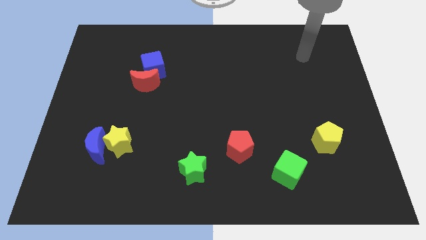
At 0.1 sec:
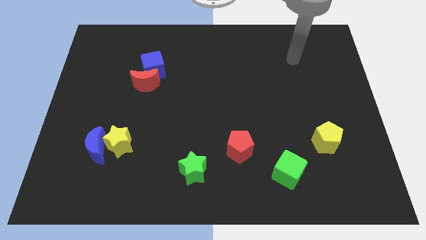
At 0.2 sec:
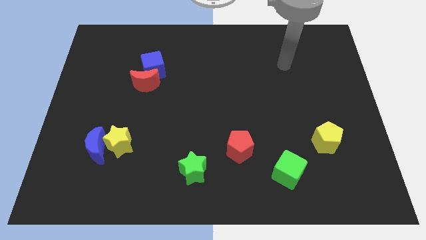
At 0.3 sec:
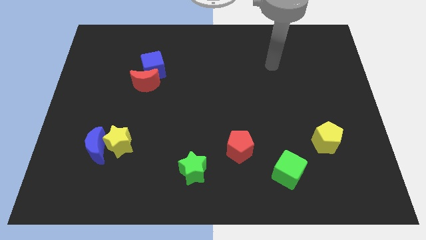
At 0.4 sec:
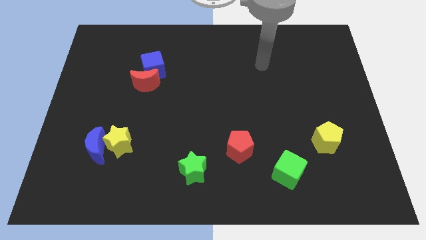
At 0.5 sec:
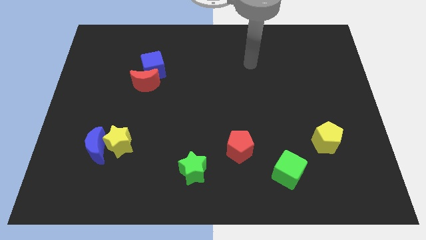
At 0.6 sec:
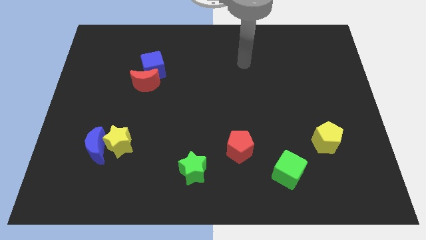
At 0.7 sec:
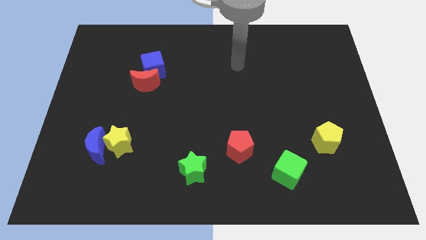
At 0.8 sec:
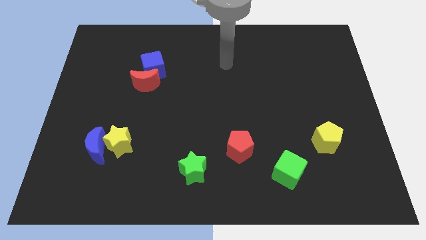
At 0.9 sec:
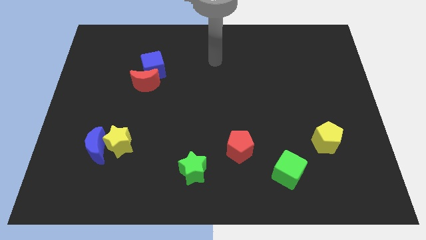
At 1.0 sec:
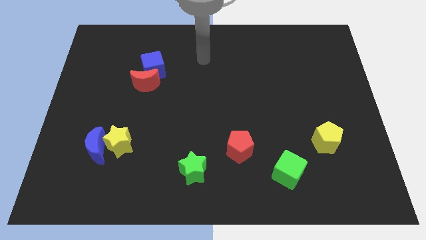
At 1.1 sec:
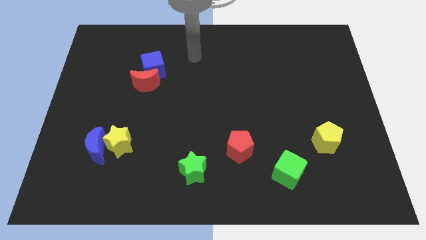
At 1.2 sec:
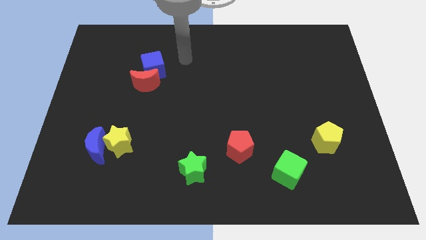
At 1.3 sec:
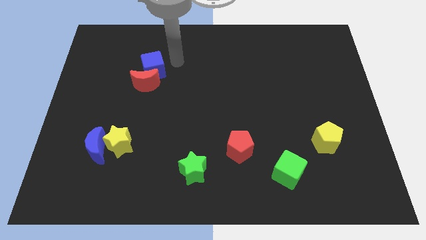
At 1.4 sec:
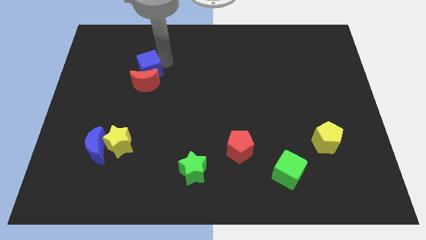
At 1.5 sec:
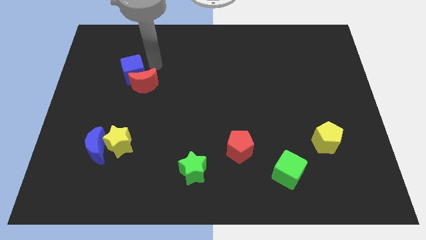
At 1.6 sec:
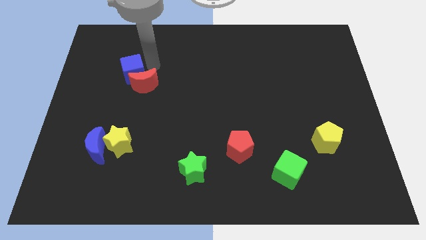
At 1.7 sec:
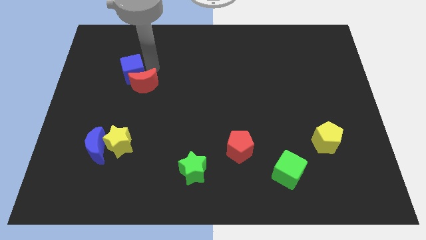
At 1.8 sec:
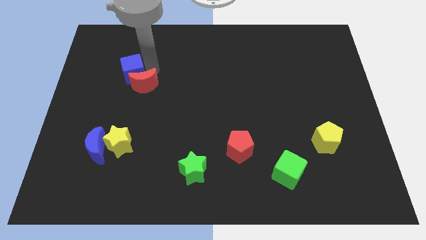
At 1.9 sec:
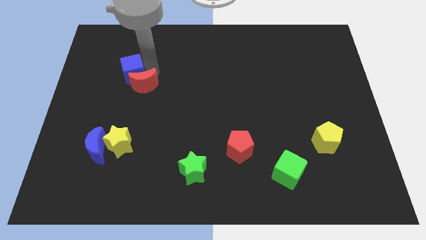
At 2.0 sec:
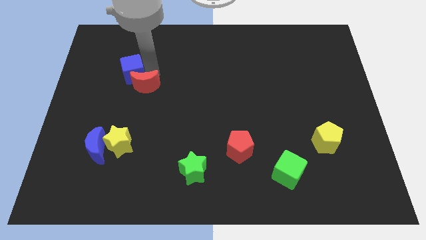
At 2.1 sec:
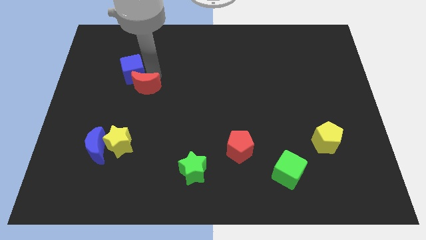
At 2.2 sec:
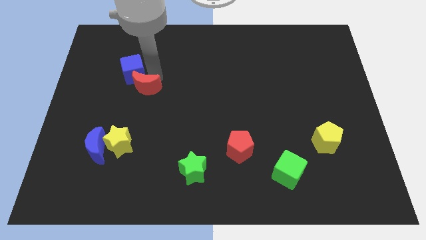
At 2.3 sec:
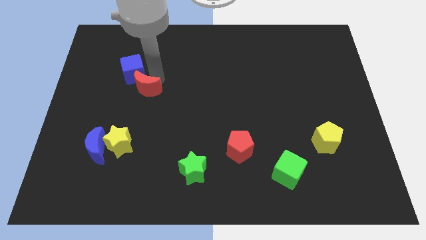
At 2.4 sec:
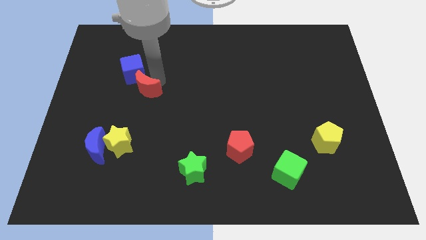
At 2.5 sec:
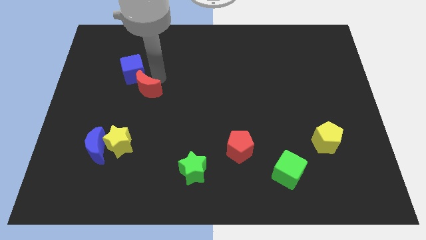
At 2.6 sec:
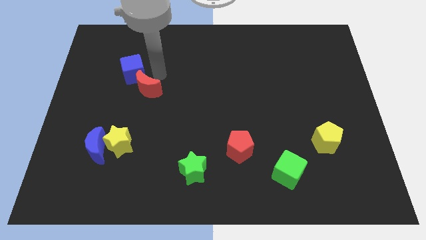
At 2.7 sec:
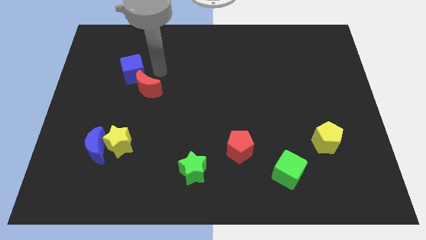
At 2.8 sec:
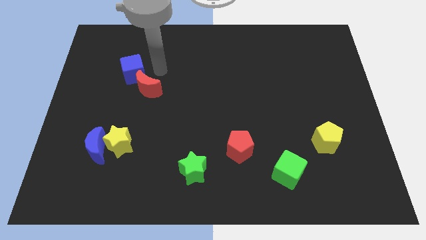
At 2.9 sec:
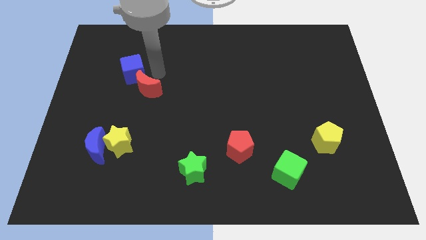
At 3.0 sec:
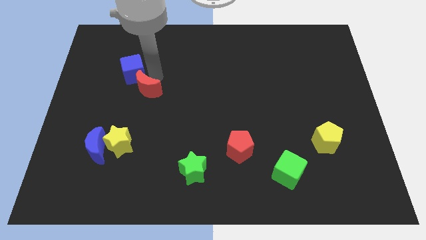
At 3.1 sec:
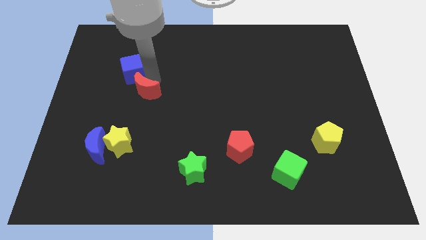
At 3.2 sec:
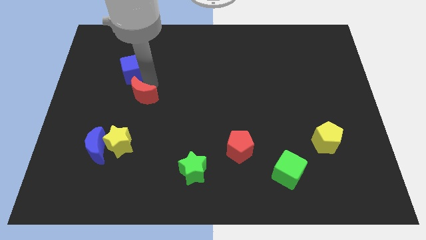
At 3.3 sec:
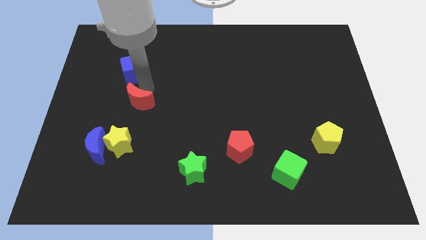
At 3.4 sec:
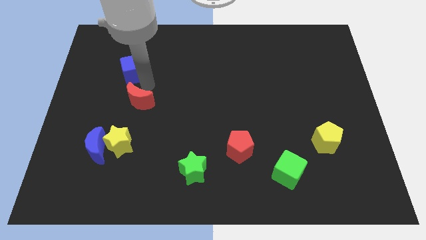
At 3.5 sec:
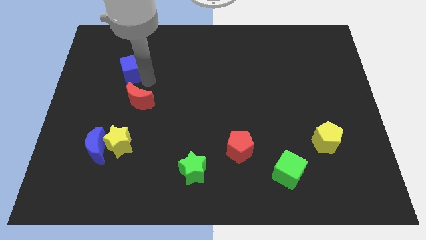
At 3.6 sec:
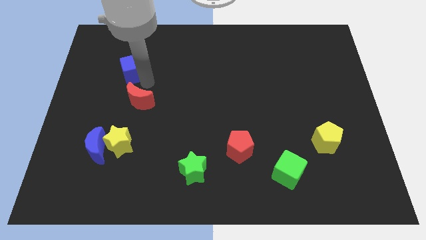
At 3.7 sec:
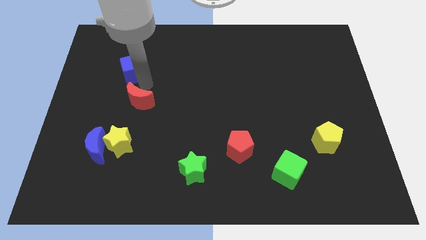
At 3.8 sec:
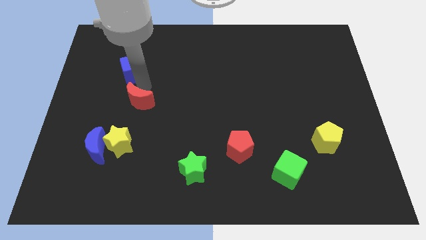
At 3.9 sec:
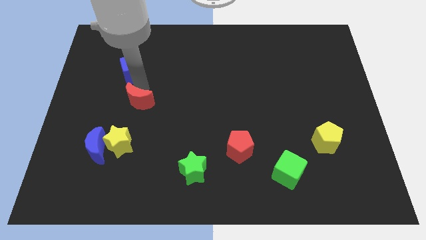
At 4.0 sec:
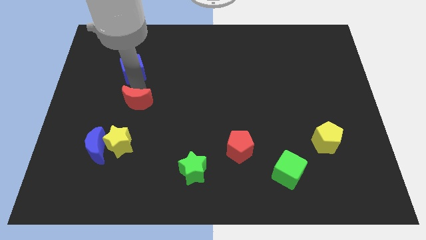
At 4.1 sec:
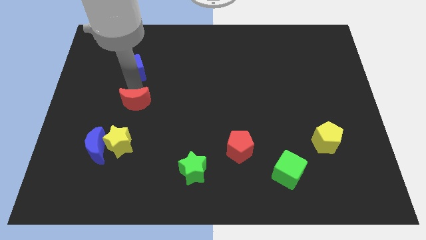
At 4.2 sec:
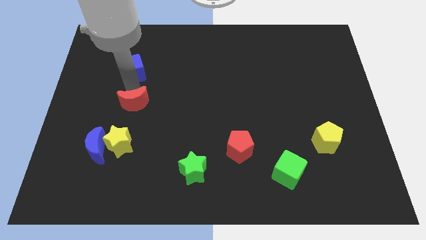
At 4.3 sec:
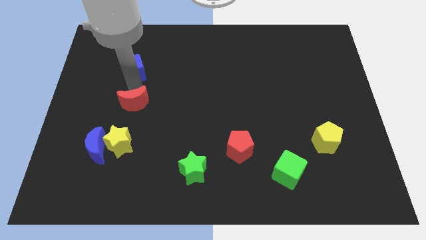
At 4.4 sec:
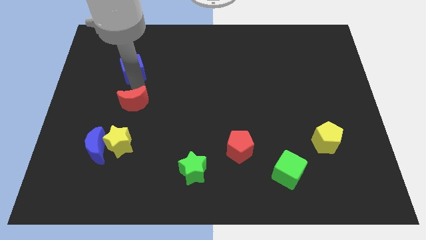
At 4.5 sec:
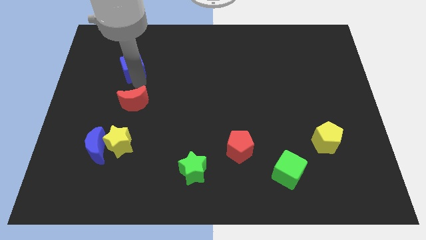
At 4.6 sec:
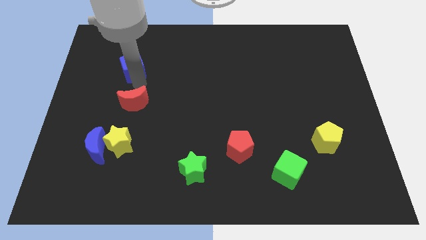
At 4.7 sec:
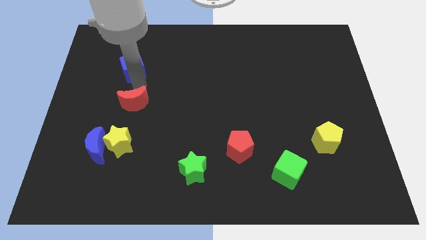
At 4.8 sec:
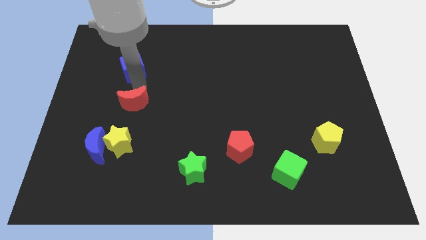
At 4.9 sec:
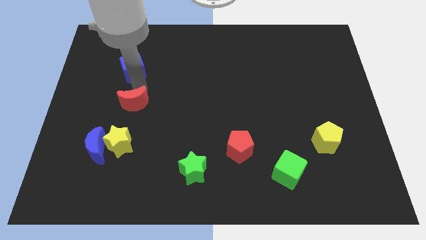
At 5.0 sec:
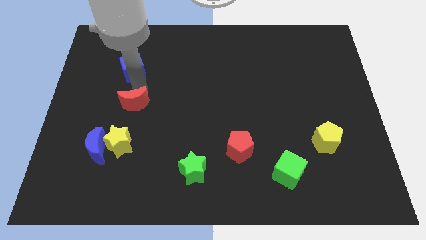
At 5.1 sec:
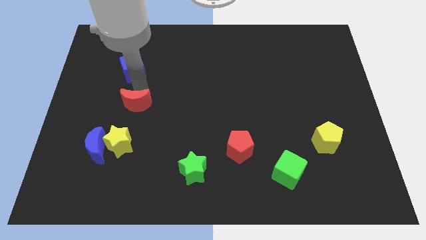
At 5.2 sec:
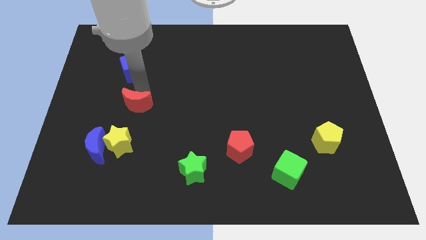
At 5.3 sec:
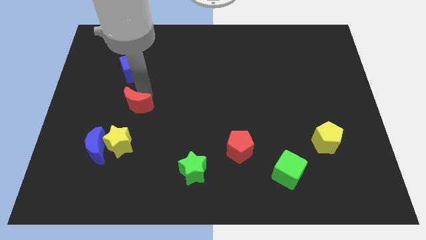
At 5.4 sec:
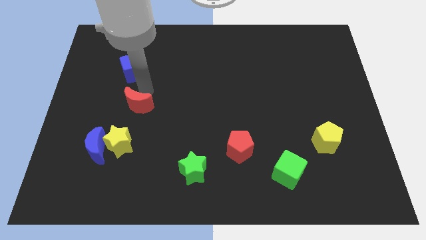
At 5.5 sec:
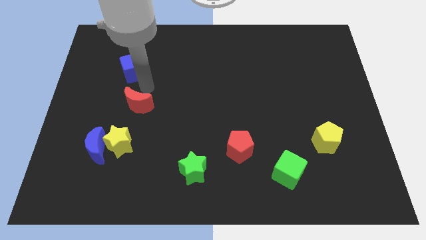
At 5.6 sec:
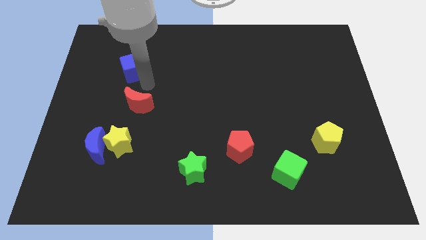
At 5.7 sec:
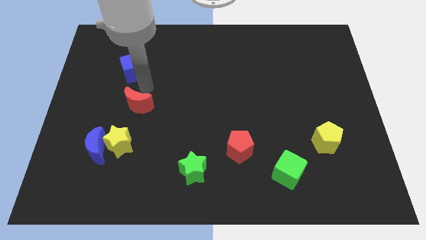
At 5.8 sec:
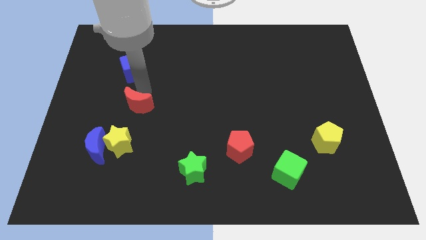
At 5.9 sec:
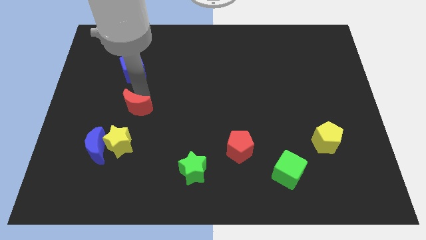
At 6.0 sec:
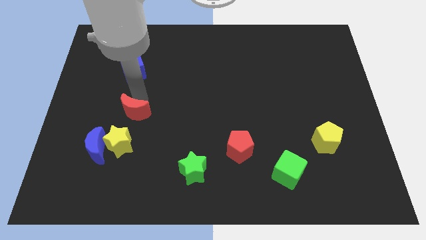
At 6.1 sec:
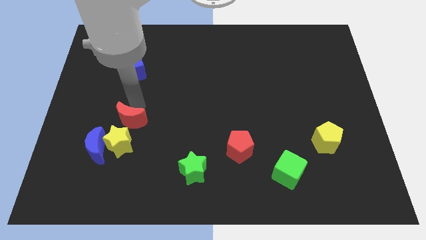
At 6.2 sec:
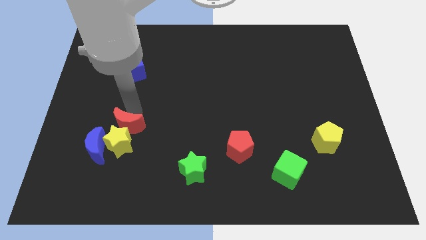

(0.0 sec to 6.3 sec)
slide the red moon next to the yellow star

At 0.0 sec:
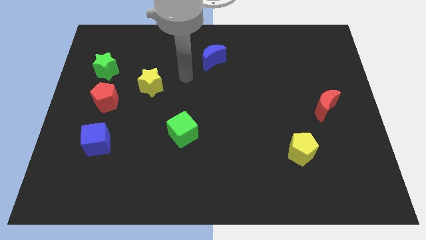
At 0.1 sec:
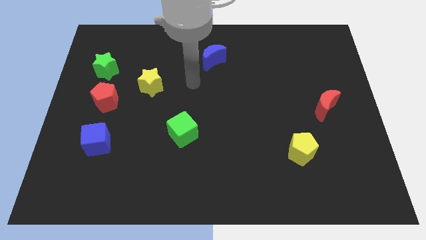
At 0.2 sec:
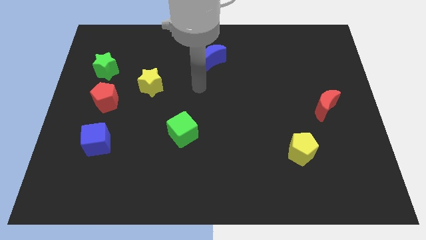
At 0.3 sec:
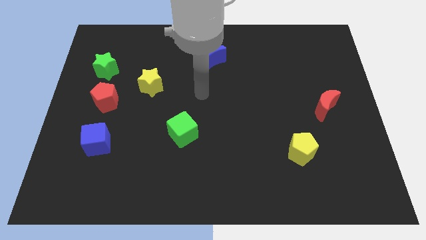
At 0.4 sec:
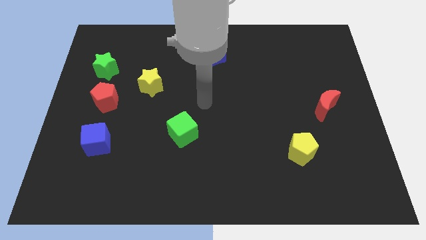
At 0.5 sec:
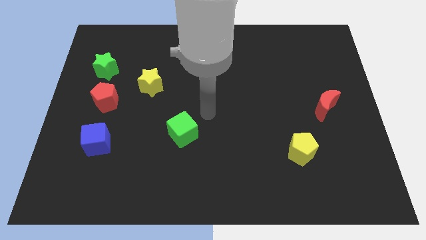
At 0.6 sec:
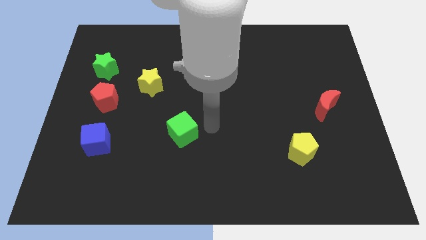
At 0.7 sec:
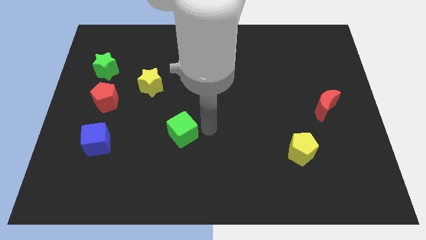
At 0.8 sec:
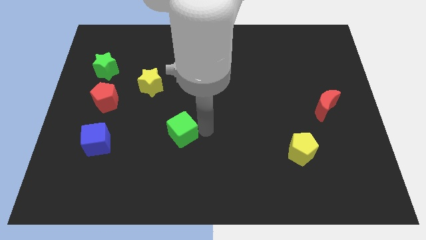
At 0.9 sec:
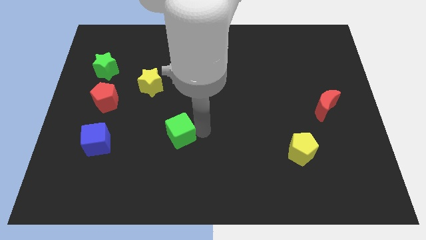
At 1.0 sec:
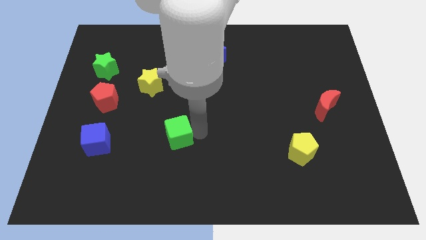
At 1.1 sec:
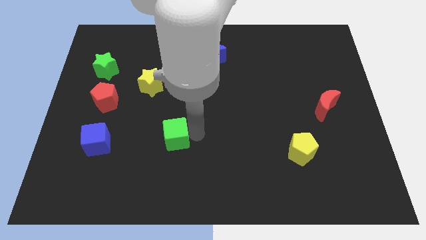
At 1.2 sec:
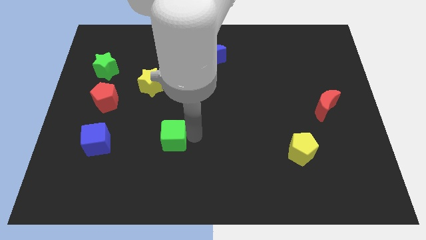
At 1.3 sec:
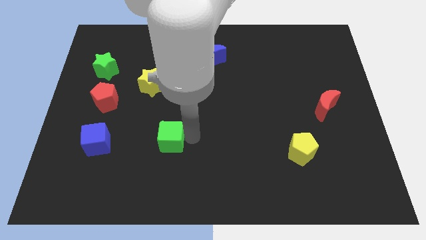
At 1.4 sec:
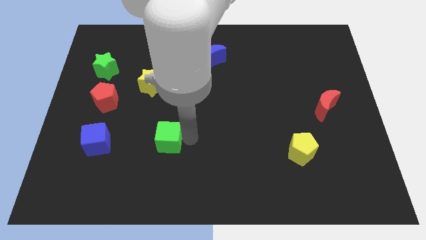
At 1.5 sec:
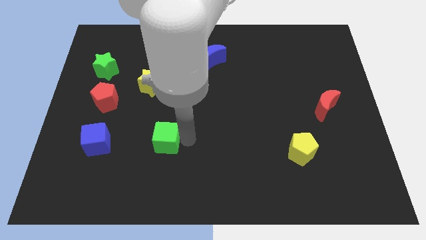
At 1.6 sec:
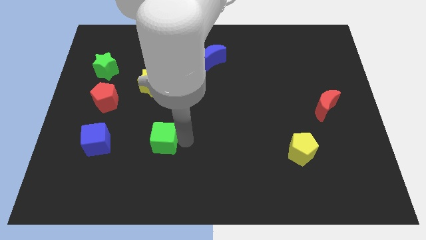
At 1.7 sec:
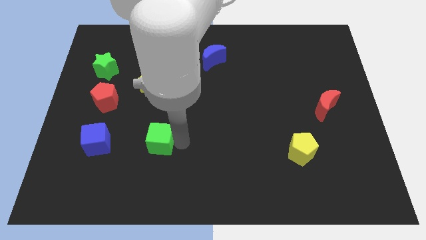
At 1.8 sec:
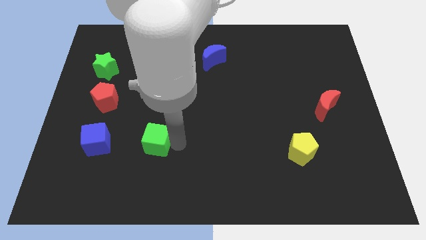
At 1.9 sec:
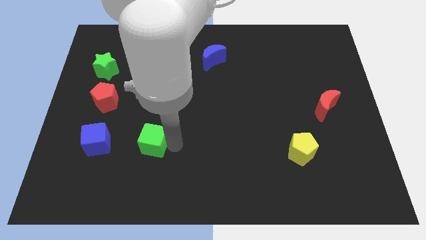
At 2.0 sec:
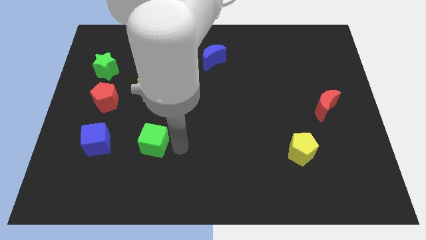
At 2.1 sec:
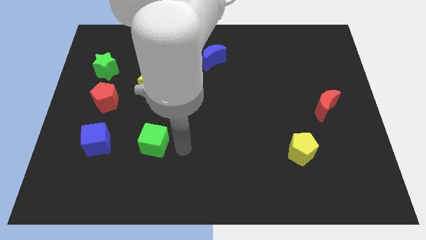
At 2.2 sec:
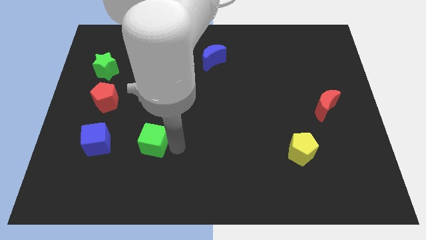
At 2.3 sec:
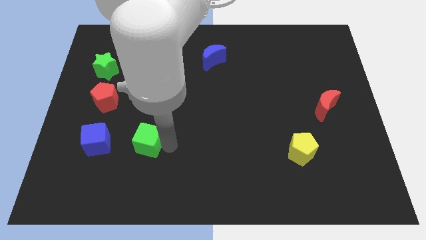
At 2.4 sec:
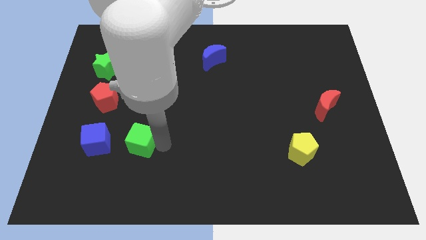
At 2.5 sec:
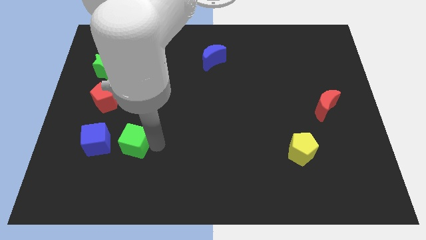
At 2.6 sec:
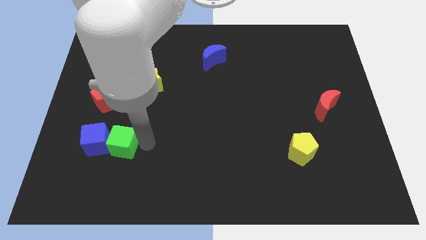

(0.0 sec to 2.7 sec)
move the green cube to the blue cube
